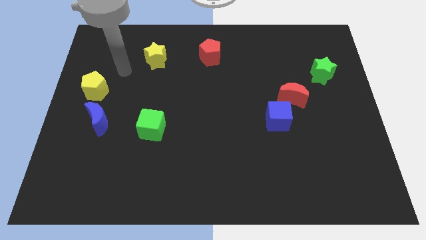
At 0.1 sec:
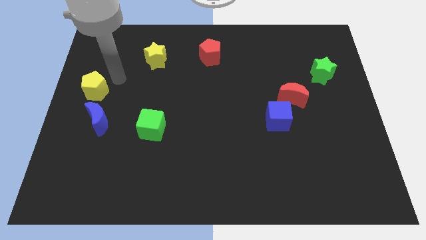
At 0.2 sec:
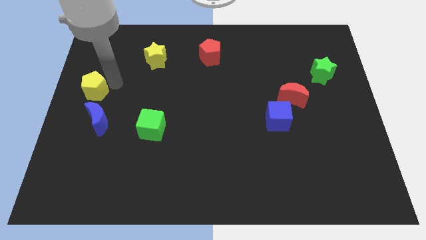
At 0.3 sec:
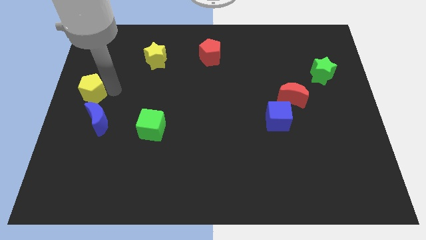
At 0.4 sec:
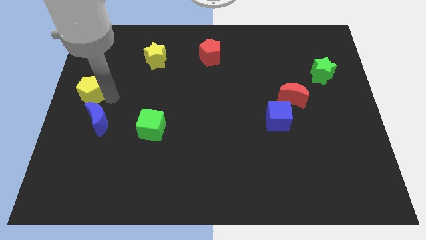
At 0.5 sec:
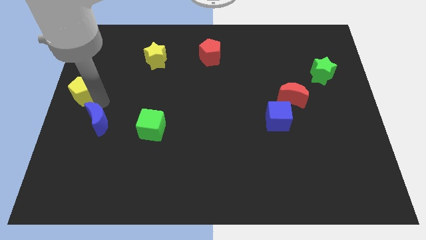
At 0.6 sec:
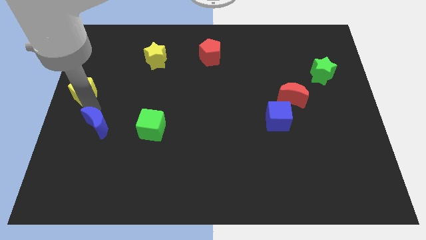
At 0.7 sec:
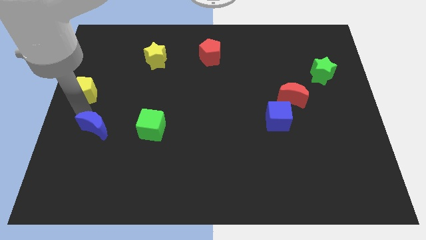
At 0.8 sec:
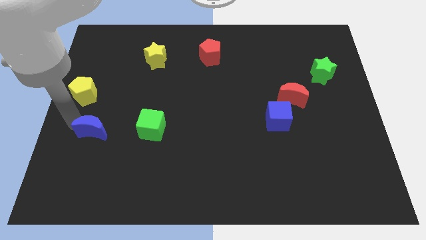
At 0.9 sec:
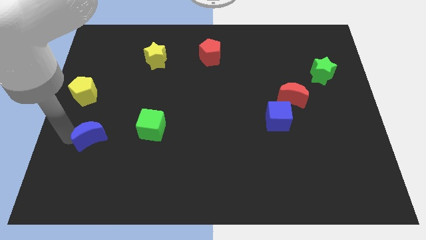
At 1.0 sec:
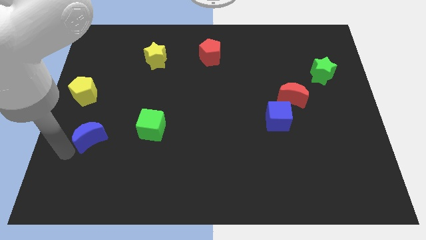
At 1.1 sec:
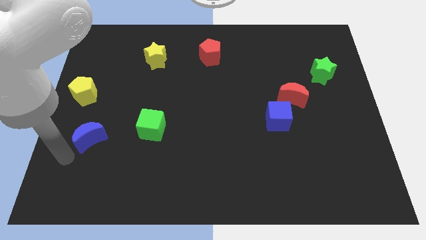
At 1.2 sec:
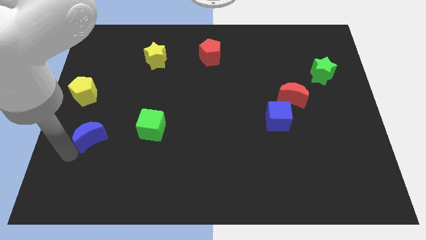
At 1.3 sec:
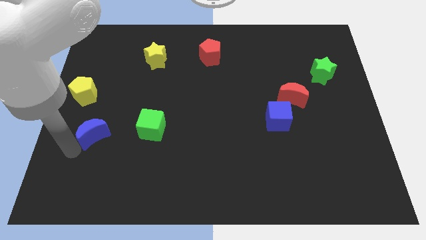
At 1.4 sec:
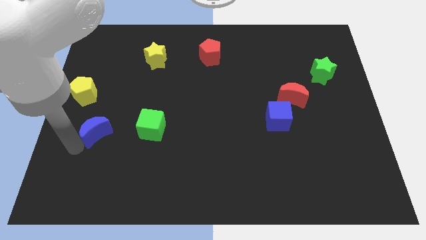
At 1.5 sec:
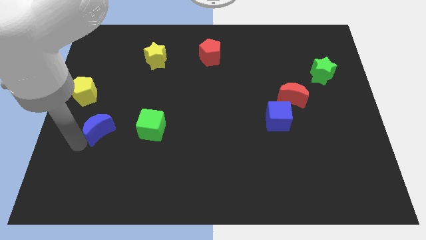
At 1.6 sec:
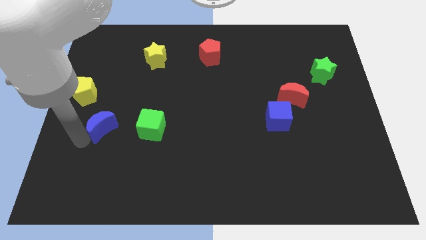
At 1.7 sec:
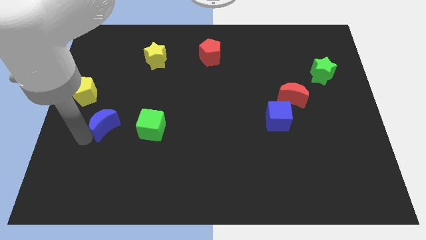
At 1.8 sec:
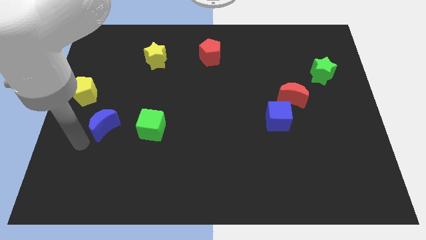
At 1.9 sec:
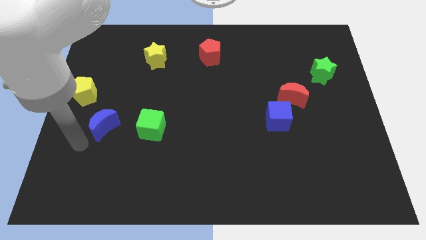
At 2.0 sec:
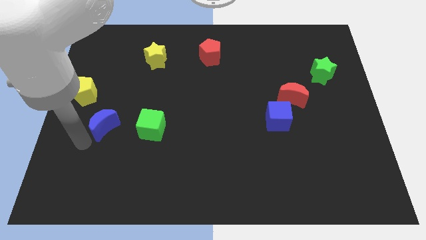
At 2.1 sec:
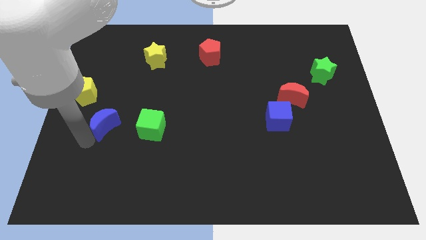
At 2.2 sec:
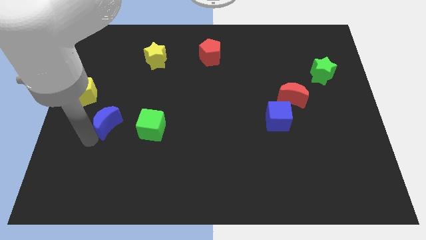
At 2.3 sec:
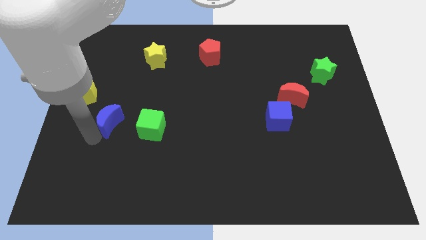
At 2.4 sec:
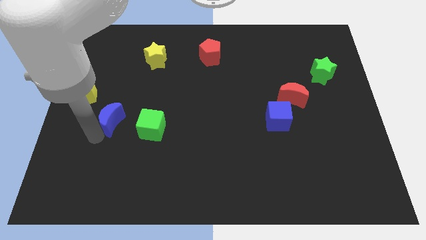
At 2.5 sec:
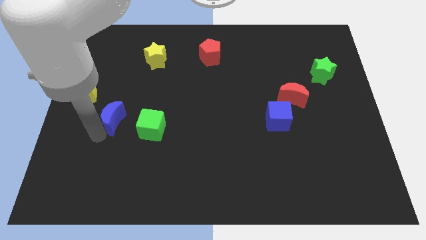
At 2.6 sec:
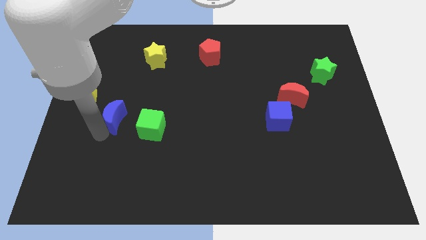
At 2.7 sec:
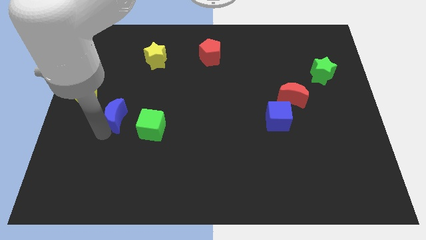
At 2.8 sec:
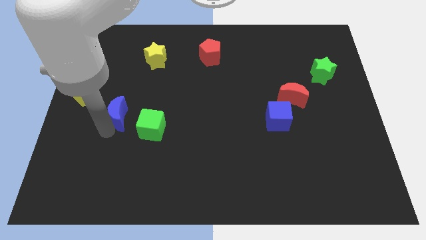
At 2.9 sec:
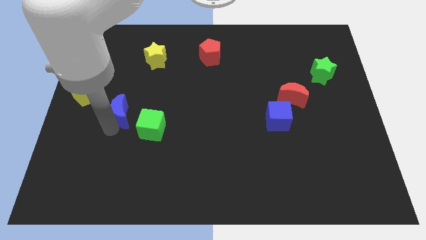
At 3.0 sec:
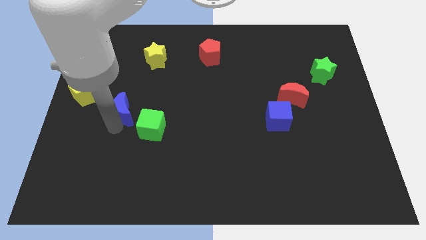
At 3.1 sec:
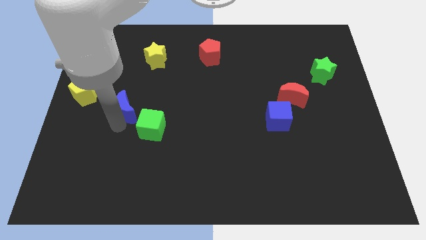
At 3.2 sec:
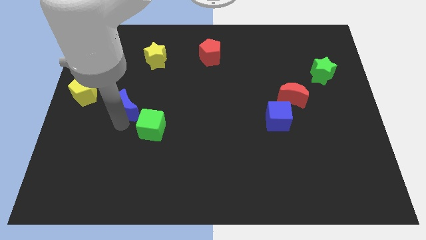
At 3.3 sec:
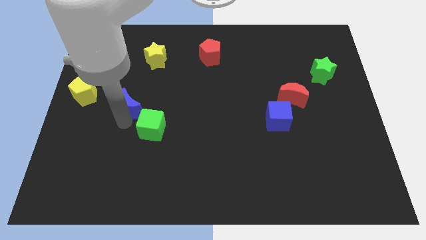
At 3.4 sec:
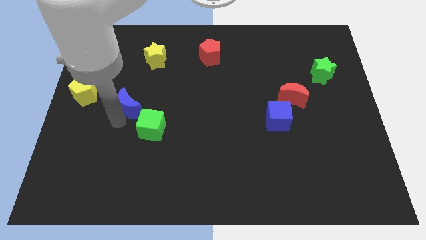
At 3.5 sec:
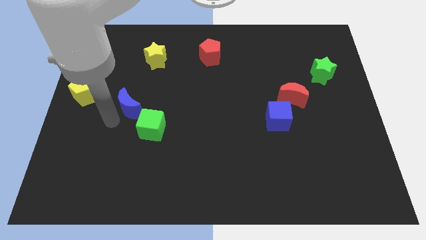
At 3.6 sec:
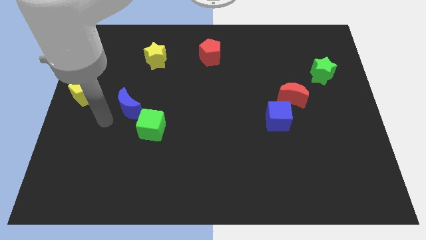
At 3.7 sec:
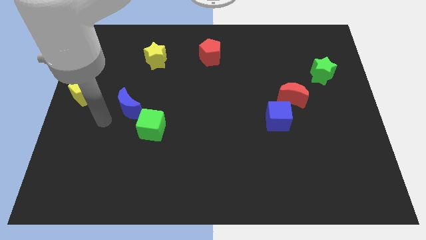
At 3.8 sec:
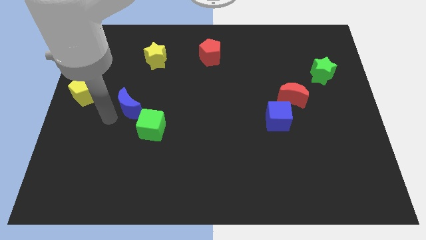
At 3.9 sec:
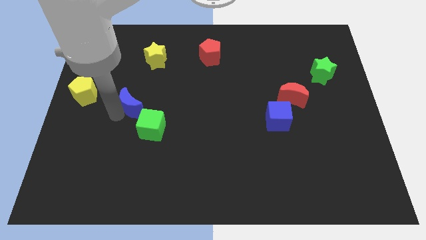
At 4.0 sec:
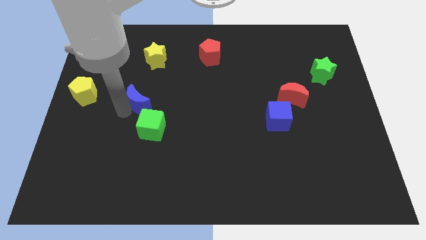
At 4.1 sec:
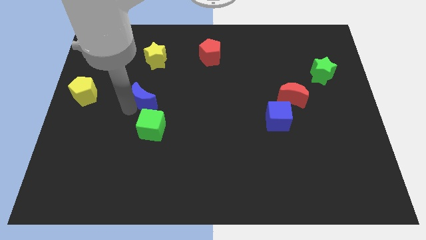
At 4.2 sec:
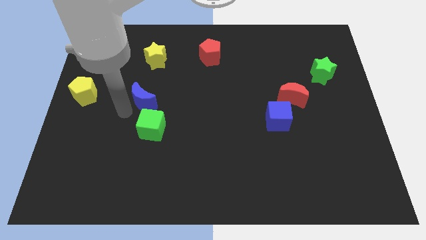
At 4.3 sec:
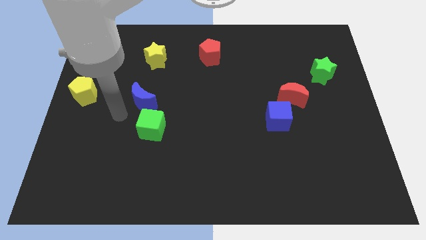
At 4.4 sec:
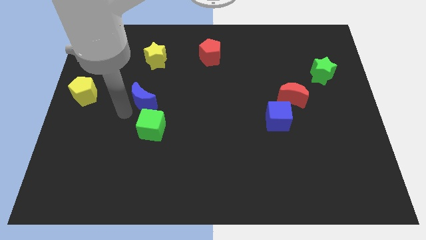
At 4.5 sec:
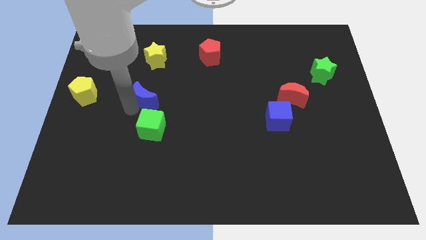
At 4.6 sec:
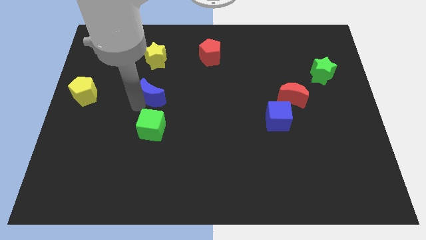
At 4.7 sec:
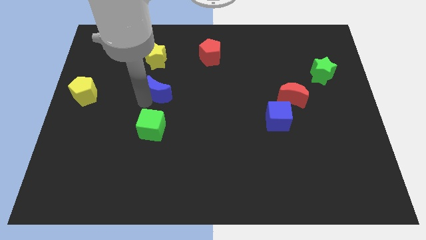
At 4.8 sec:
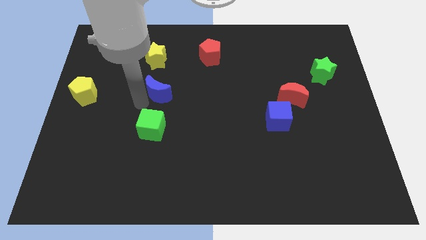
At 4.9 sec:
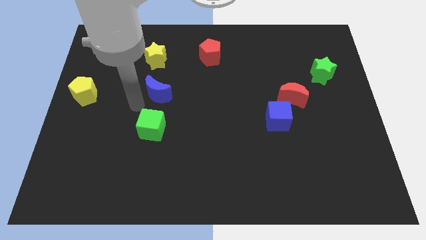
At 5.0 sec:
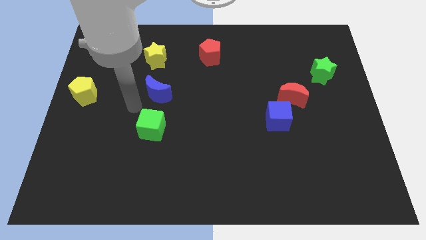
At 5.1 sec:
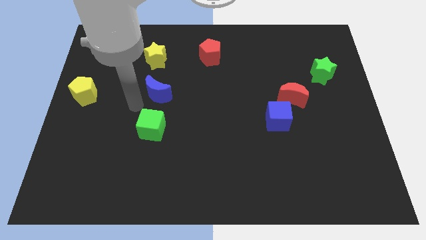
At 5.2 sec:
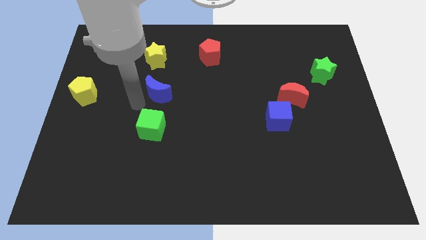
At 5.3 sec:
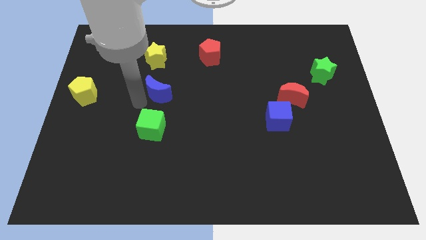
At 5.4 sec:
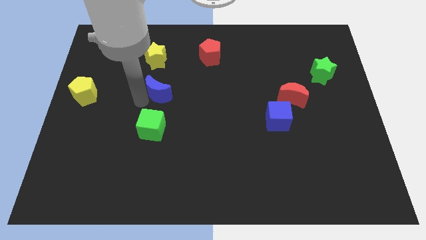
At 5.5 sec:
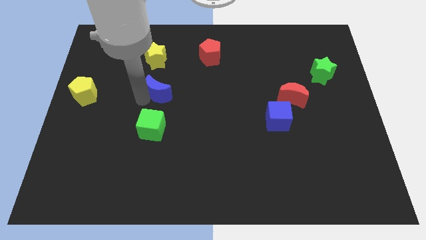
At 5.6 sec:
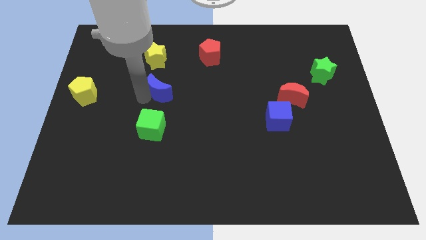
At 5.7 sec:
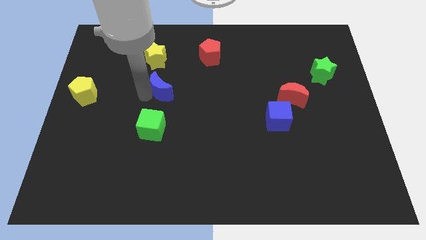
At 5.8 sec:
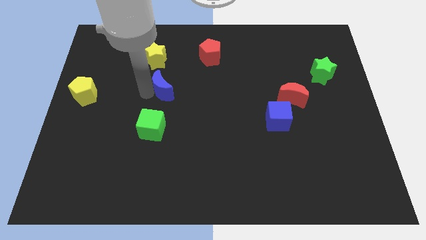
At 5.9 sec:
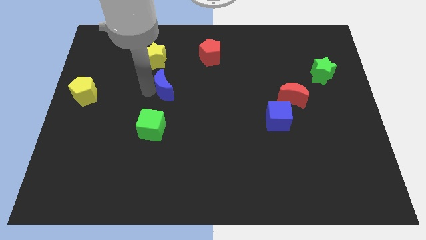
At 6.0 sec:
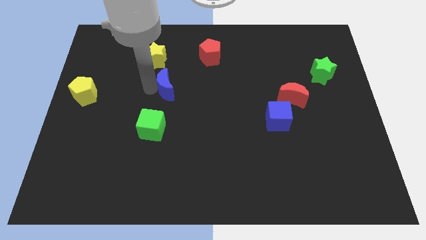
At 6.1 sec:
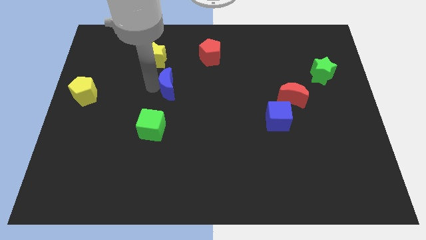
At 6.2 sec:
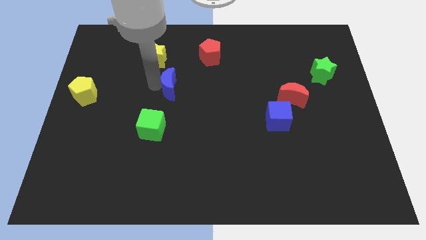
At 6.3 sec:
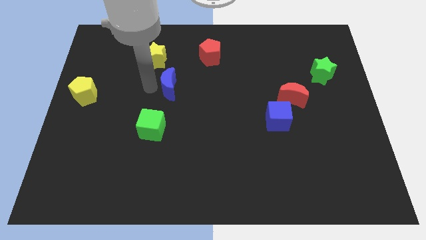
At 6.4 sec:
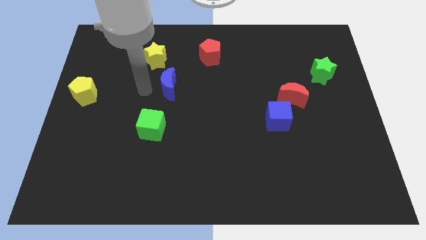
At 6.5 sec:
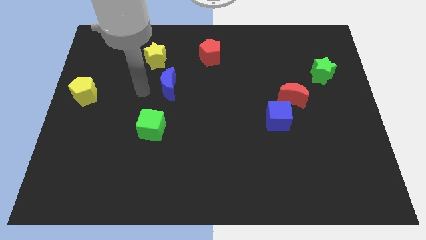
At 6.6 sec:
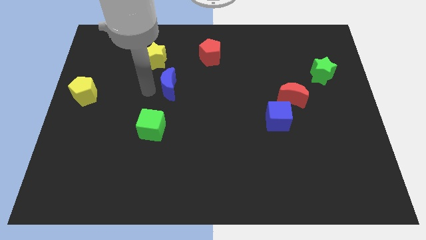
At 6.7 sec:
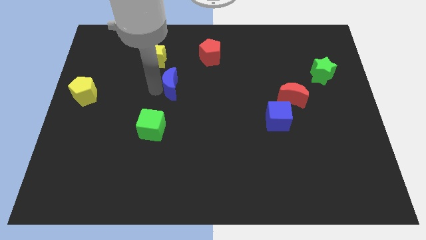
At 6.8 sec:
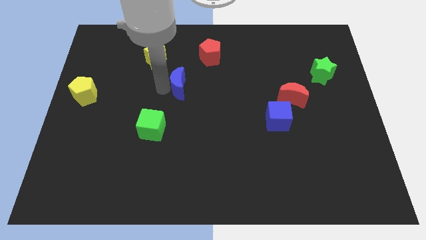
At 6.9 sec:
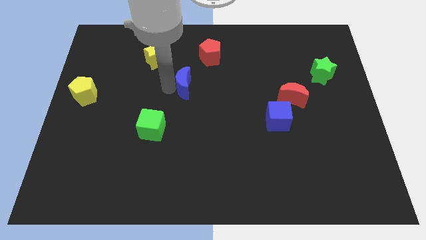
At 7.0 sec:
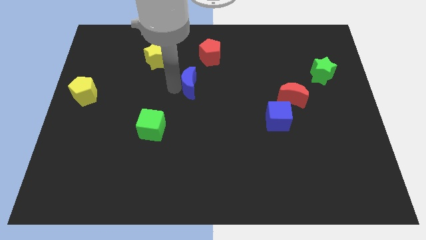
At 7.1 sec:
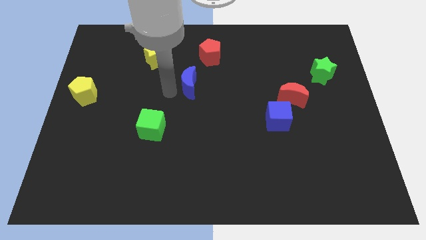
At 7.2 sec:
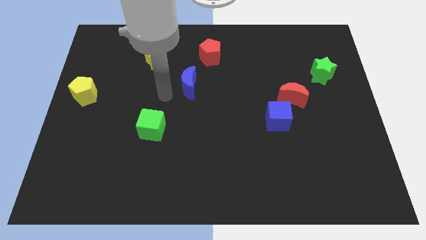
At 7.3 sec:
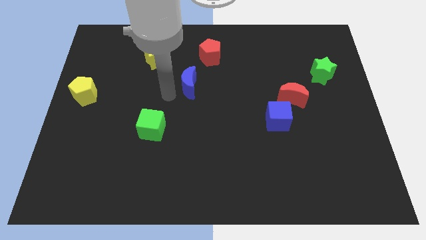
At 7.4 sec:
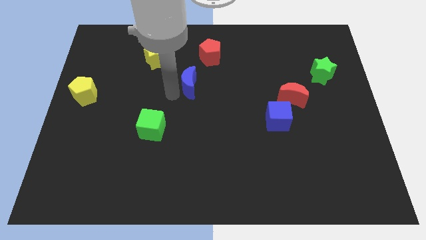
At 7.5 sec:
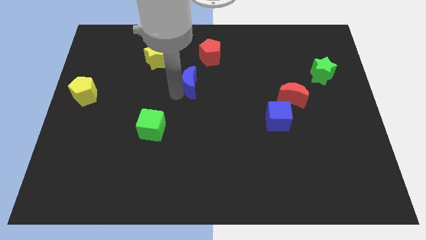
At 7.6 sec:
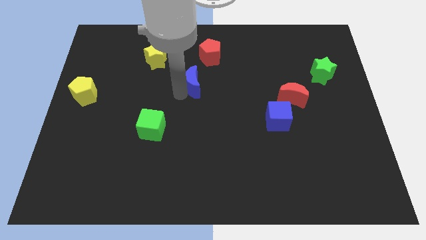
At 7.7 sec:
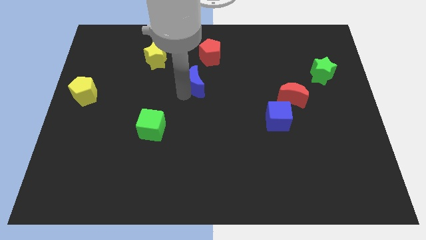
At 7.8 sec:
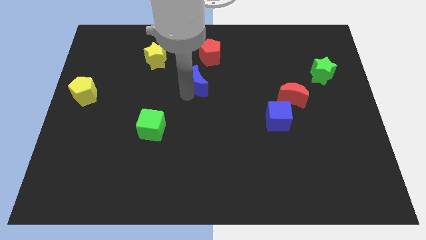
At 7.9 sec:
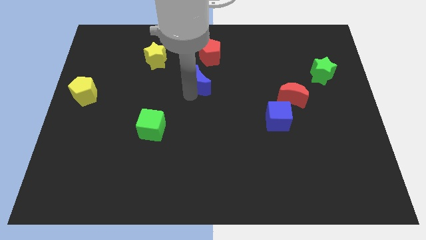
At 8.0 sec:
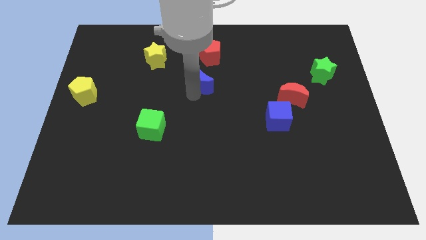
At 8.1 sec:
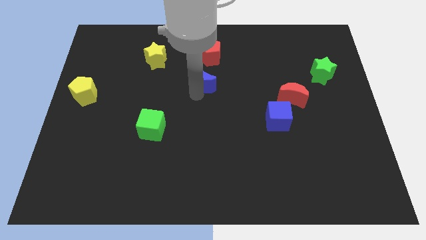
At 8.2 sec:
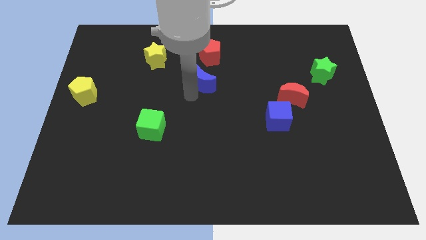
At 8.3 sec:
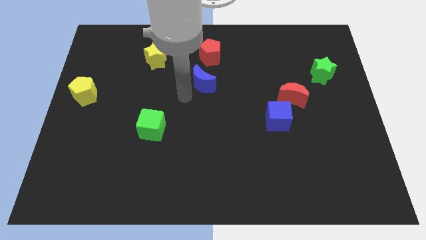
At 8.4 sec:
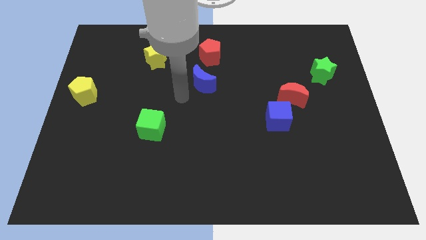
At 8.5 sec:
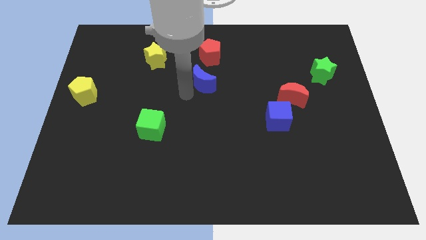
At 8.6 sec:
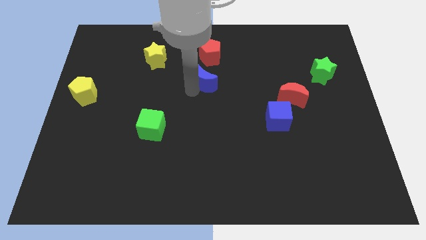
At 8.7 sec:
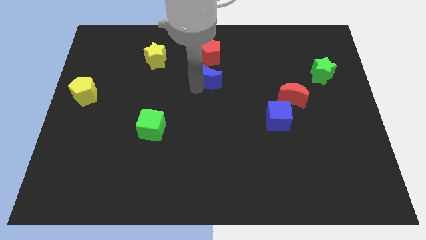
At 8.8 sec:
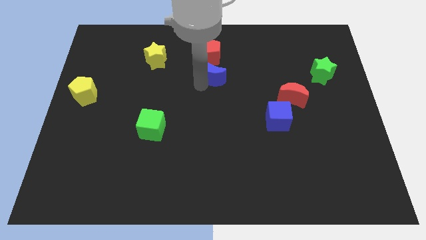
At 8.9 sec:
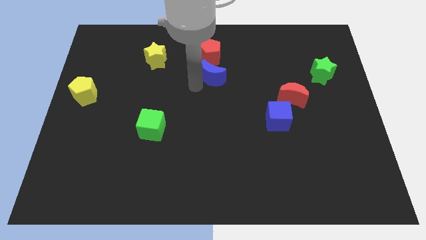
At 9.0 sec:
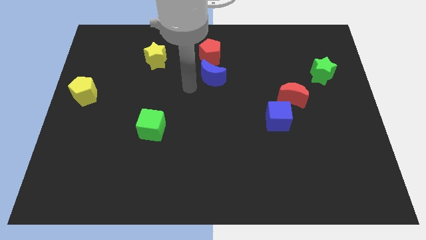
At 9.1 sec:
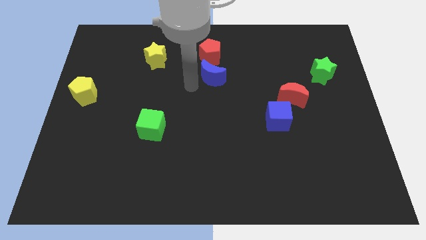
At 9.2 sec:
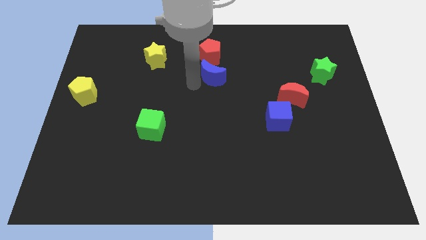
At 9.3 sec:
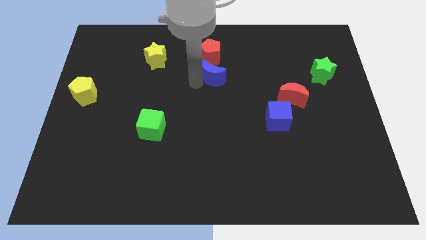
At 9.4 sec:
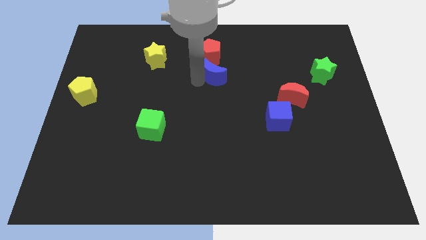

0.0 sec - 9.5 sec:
put the blue moon to the bottom right of the red pentagon
